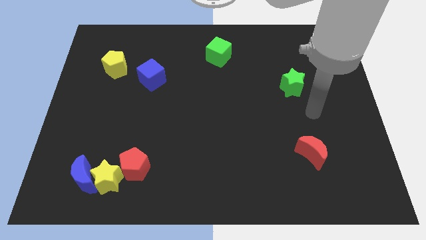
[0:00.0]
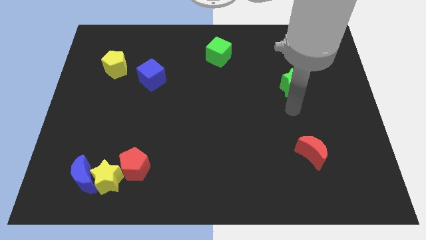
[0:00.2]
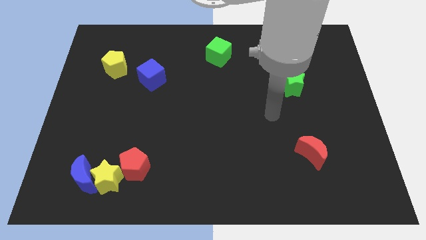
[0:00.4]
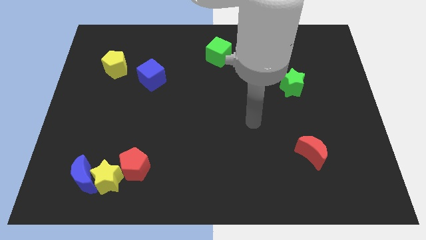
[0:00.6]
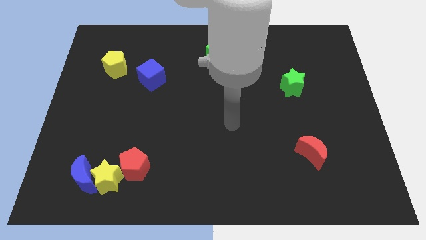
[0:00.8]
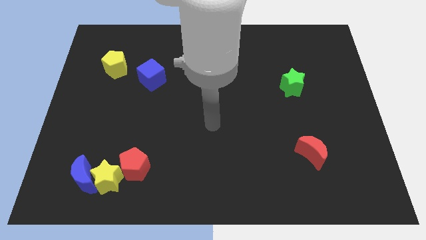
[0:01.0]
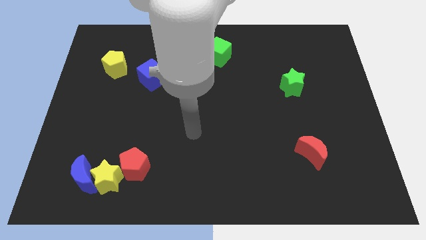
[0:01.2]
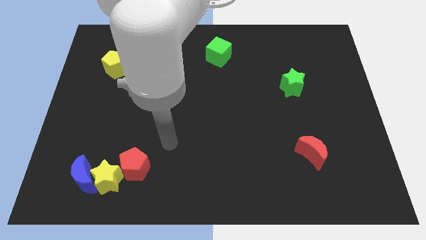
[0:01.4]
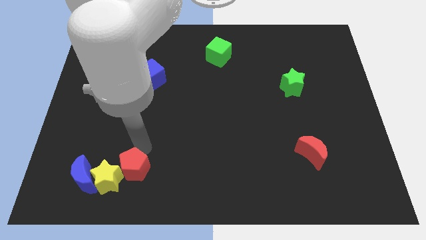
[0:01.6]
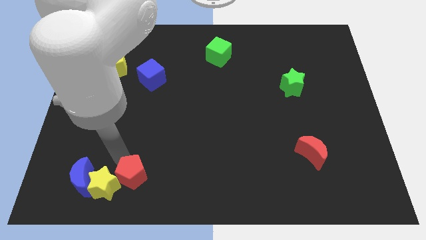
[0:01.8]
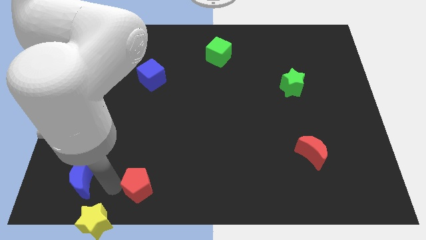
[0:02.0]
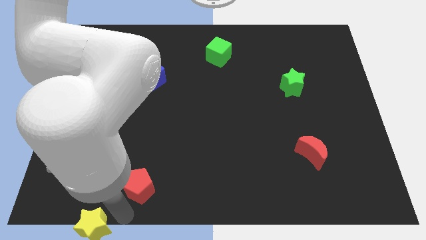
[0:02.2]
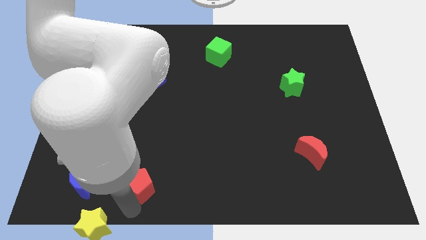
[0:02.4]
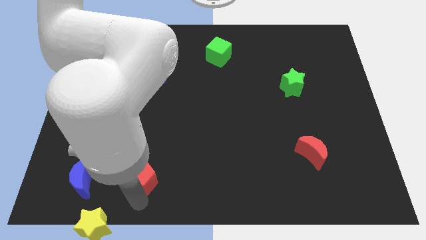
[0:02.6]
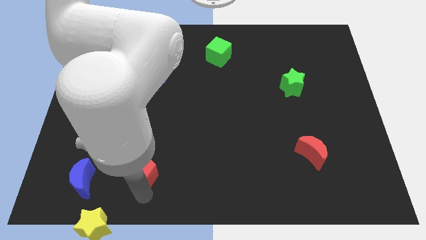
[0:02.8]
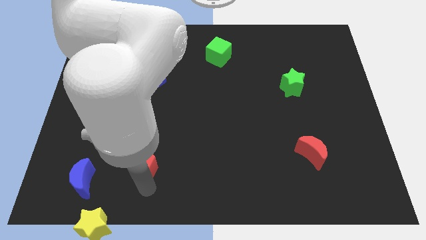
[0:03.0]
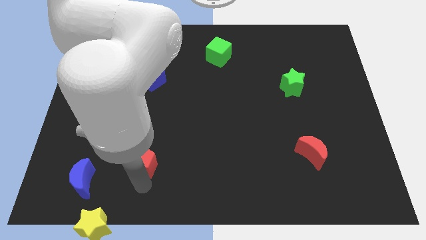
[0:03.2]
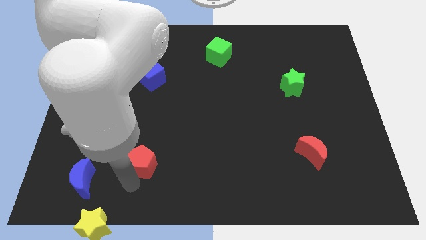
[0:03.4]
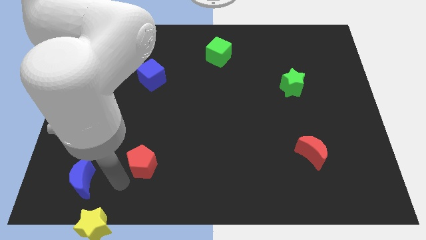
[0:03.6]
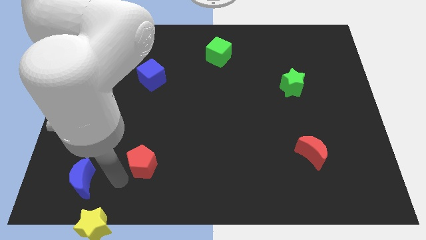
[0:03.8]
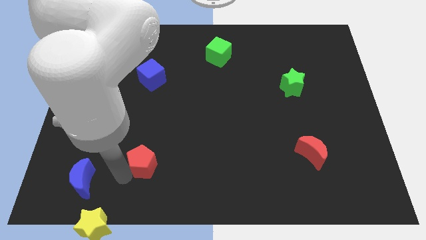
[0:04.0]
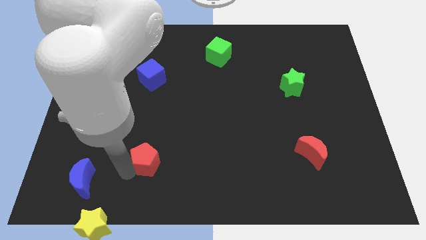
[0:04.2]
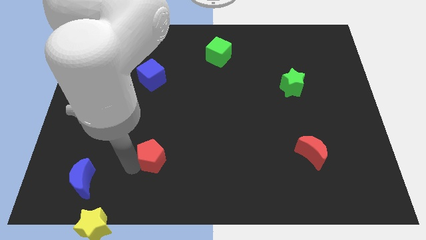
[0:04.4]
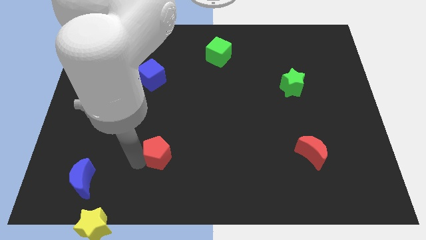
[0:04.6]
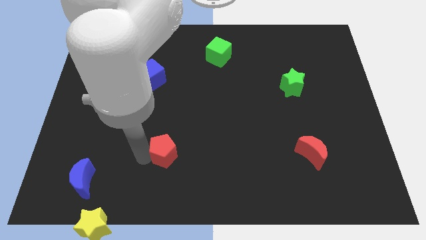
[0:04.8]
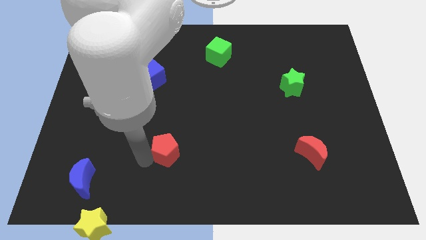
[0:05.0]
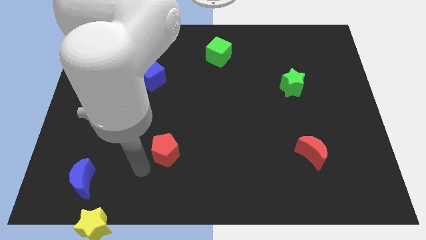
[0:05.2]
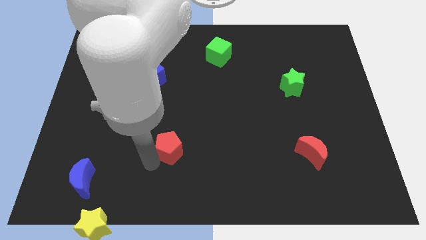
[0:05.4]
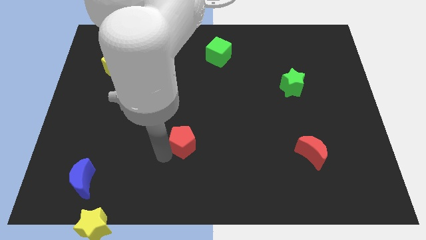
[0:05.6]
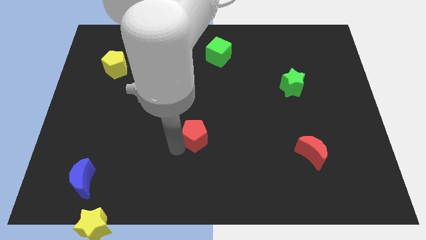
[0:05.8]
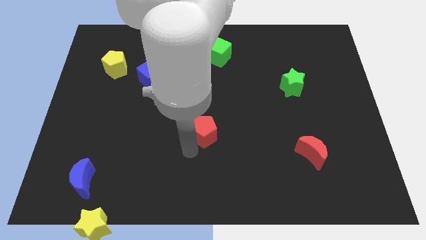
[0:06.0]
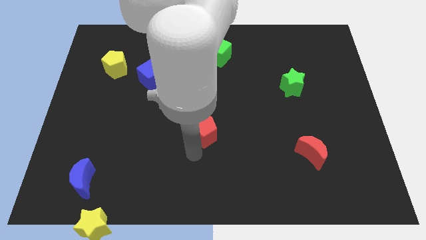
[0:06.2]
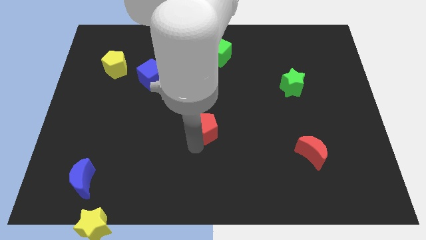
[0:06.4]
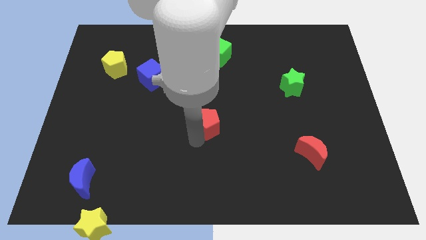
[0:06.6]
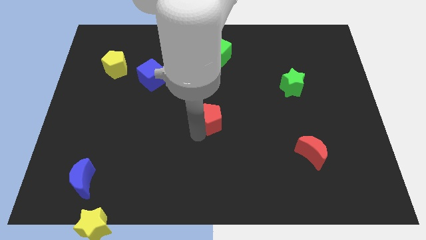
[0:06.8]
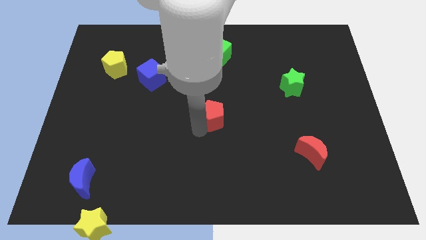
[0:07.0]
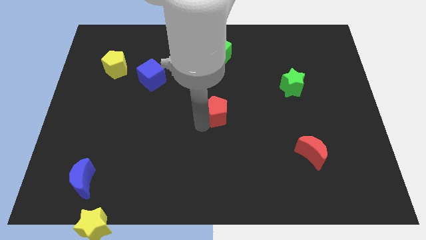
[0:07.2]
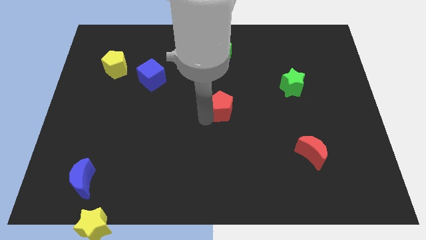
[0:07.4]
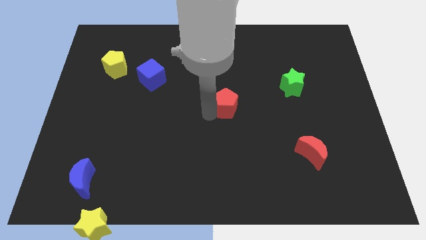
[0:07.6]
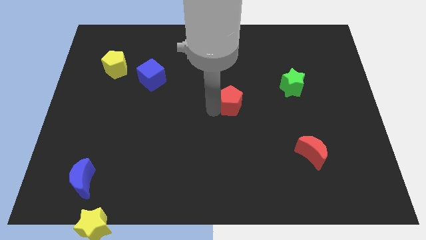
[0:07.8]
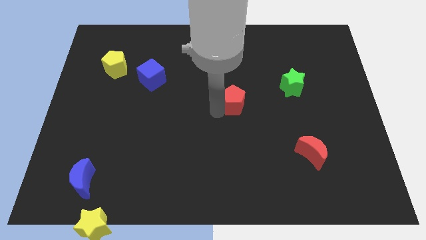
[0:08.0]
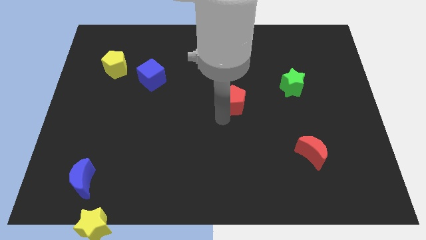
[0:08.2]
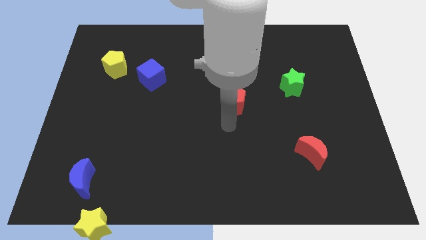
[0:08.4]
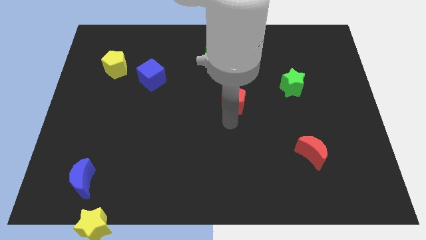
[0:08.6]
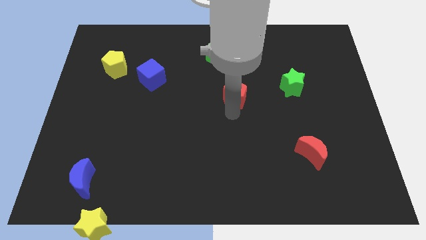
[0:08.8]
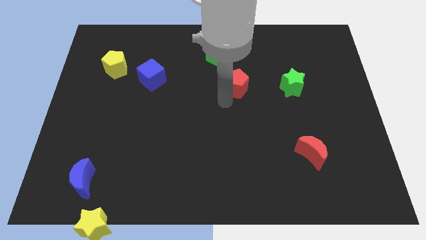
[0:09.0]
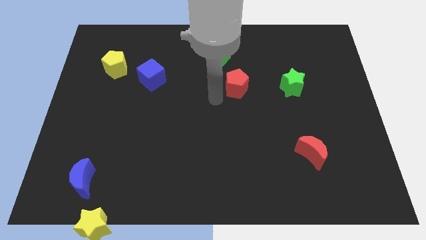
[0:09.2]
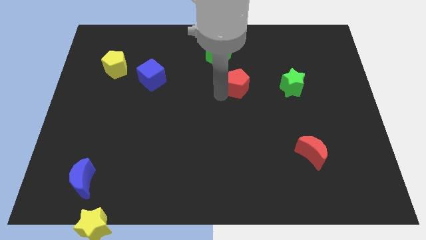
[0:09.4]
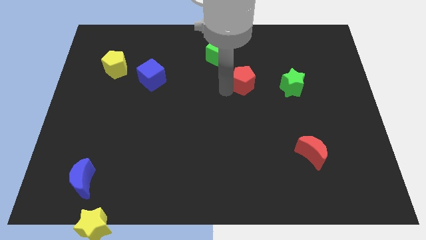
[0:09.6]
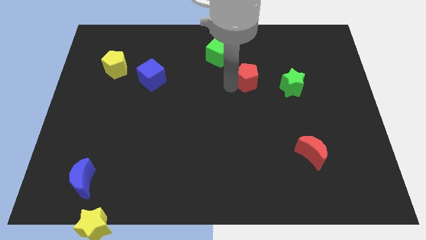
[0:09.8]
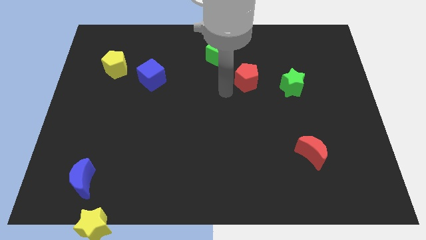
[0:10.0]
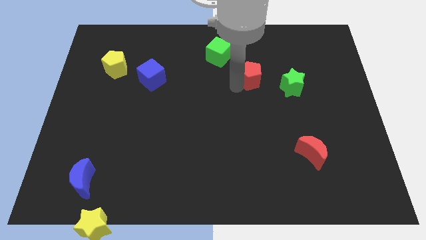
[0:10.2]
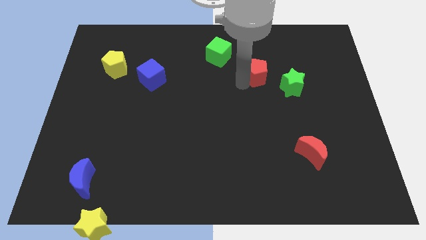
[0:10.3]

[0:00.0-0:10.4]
put the red pentagon diagonally up and to the left of the green star
